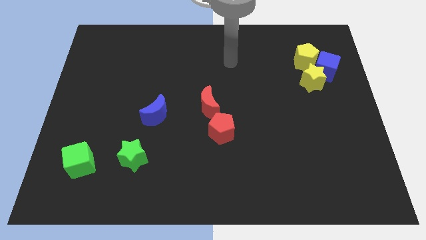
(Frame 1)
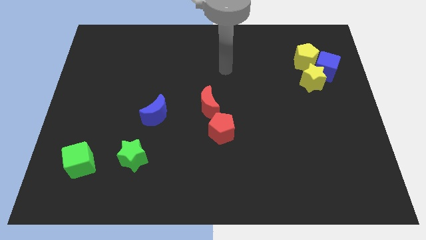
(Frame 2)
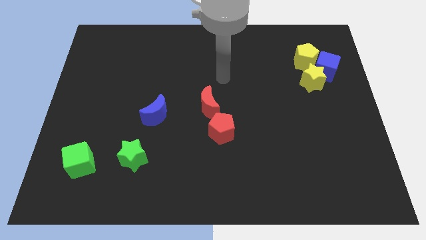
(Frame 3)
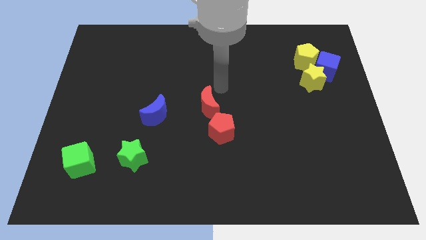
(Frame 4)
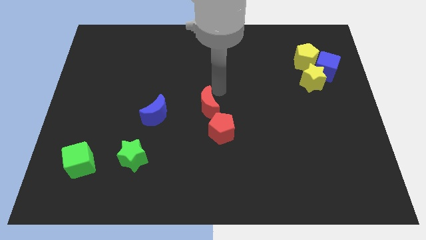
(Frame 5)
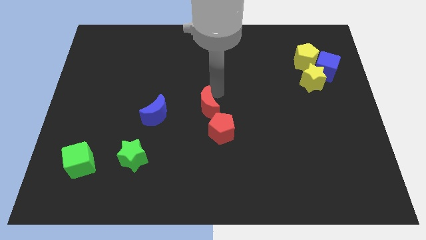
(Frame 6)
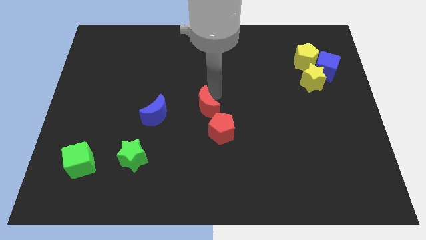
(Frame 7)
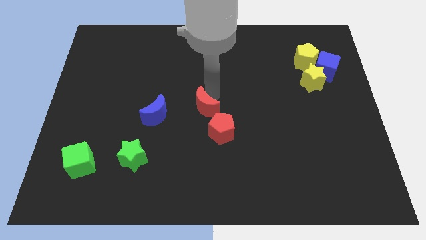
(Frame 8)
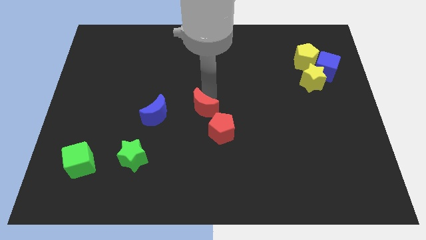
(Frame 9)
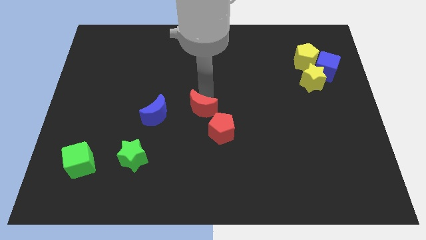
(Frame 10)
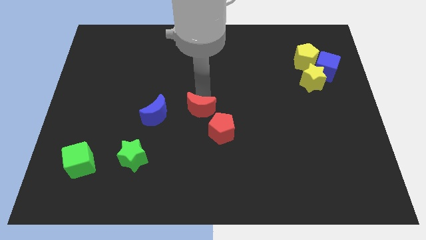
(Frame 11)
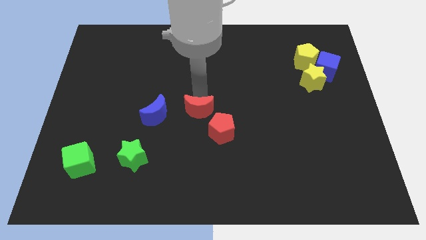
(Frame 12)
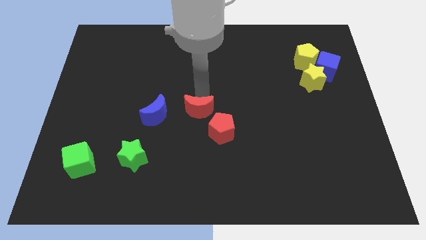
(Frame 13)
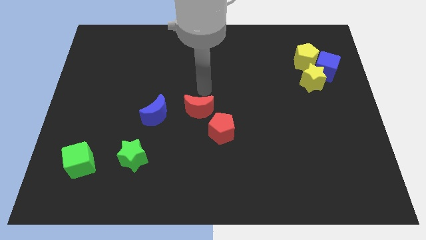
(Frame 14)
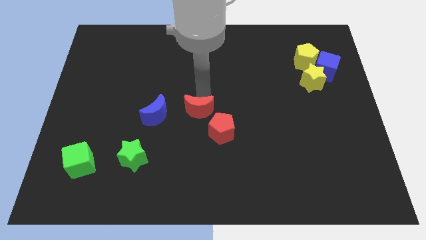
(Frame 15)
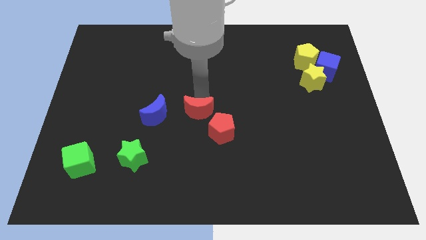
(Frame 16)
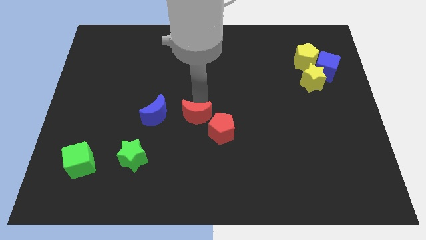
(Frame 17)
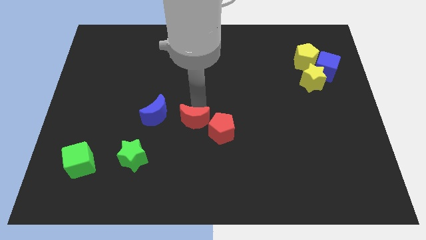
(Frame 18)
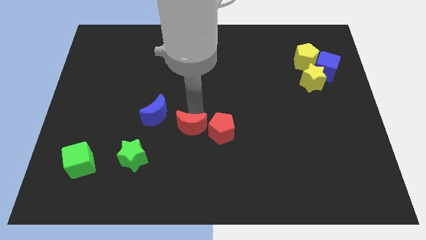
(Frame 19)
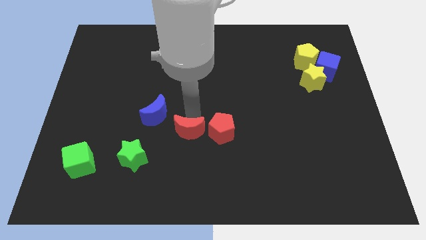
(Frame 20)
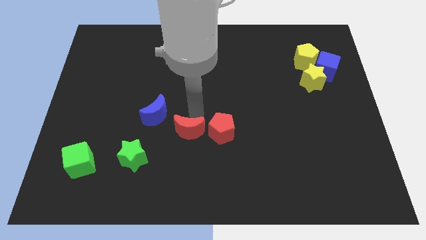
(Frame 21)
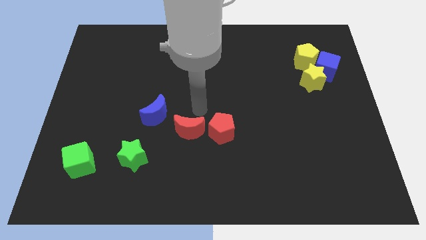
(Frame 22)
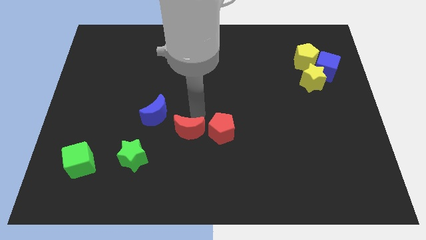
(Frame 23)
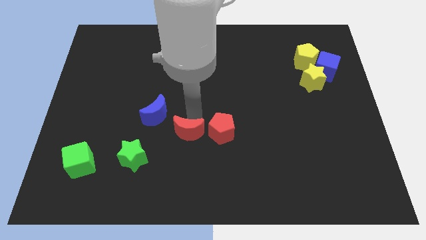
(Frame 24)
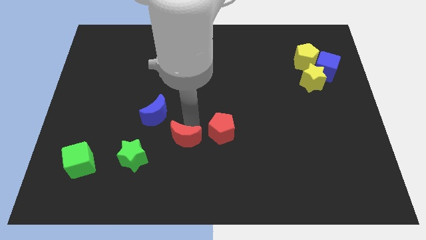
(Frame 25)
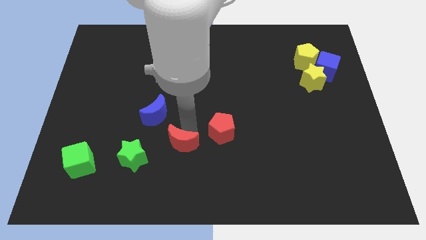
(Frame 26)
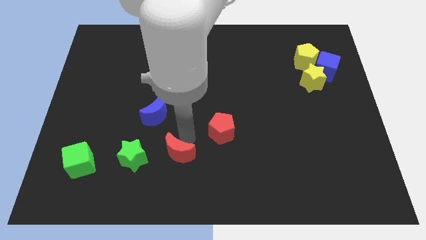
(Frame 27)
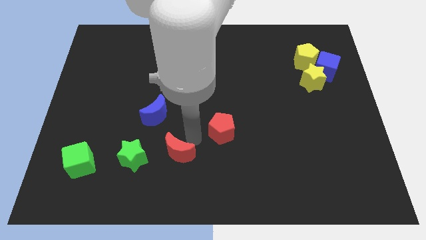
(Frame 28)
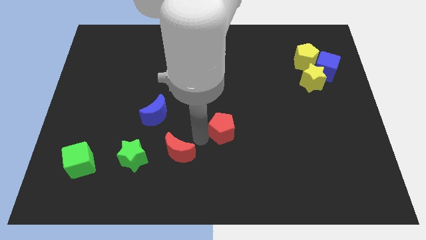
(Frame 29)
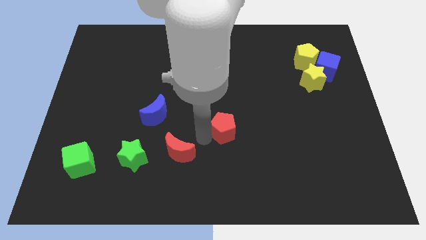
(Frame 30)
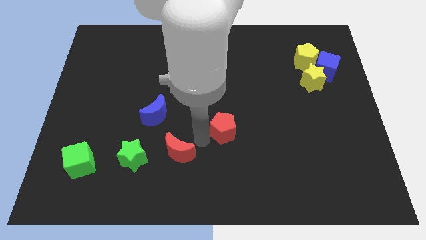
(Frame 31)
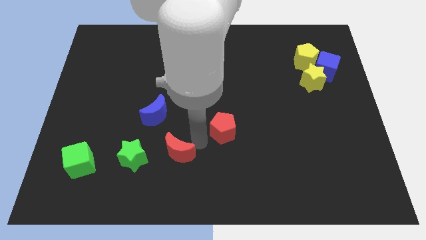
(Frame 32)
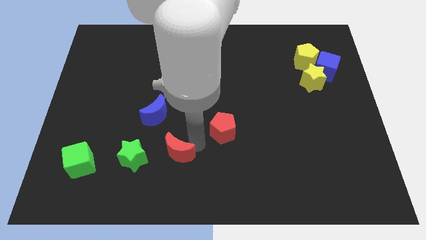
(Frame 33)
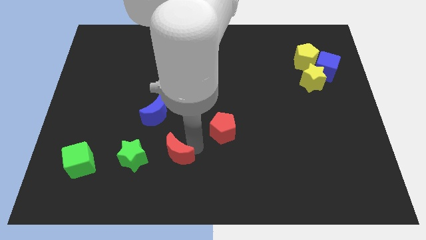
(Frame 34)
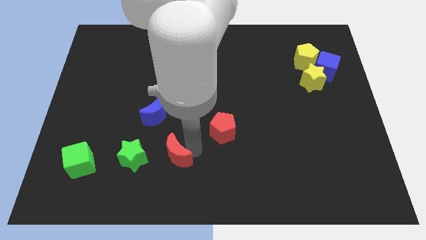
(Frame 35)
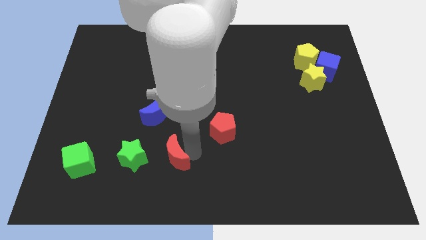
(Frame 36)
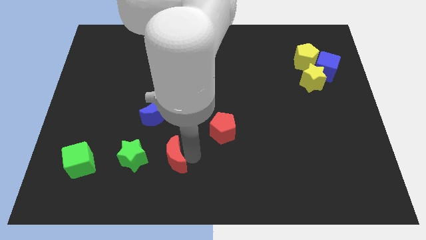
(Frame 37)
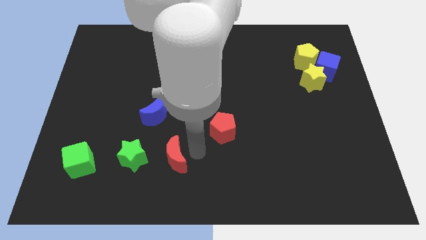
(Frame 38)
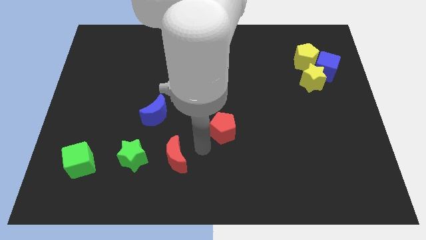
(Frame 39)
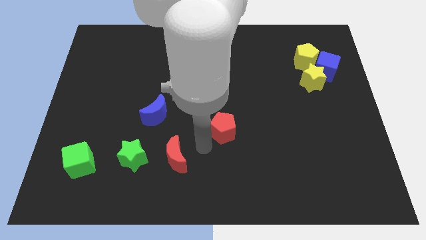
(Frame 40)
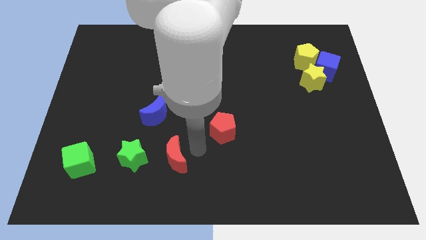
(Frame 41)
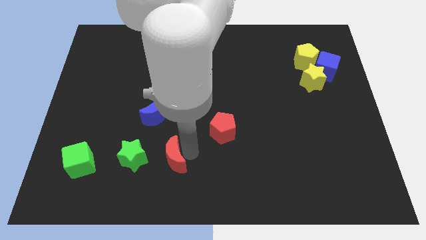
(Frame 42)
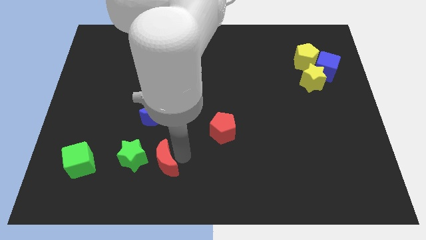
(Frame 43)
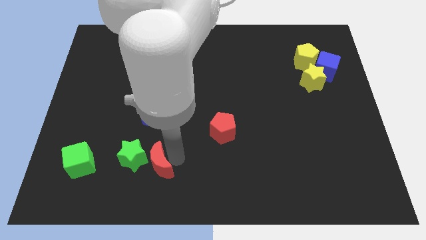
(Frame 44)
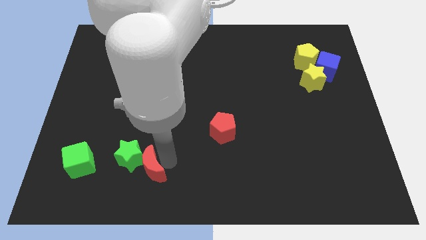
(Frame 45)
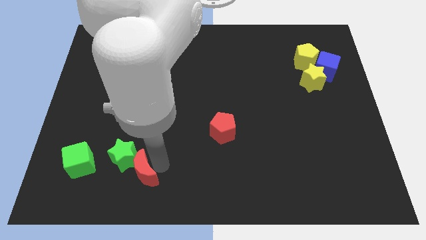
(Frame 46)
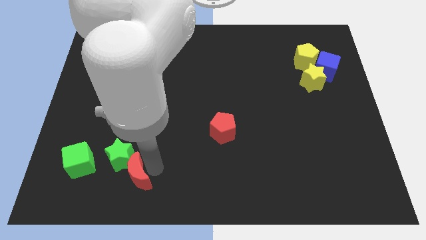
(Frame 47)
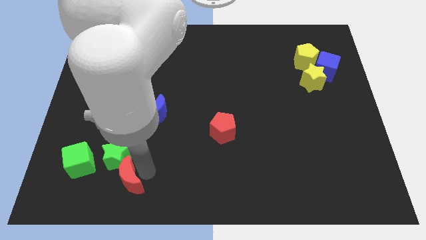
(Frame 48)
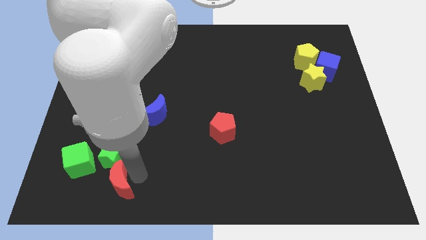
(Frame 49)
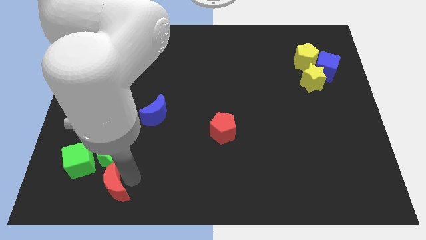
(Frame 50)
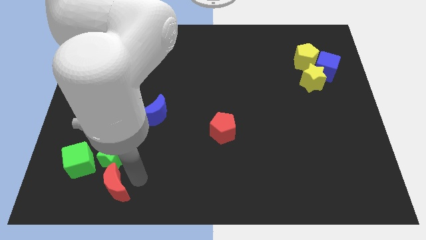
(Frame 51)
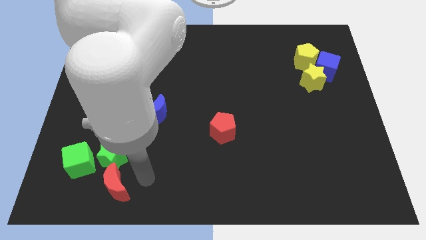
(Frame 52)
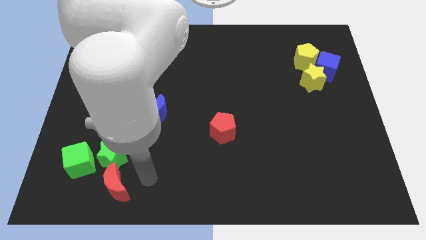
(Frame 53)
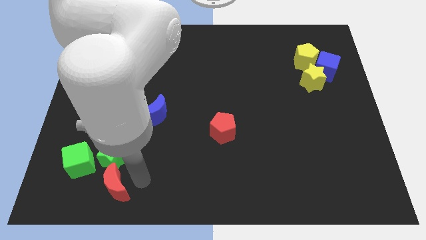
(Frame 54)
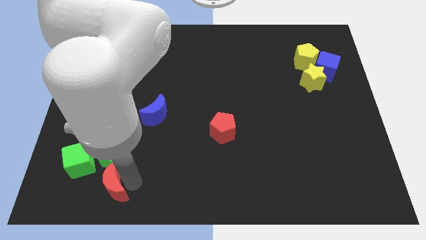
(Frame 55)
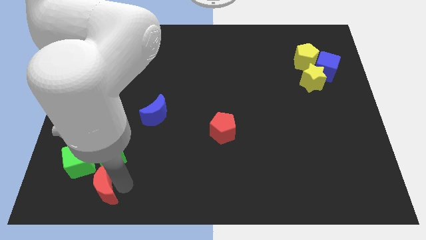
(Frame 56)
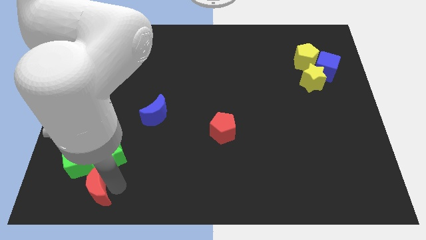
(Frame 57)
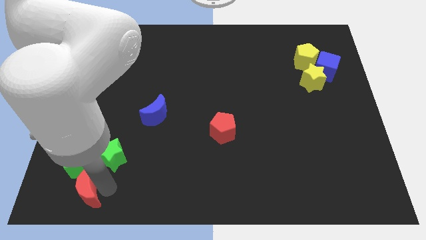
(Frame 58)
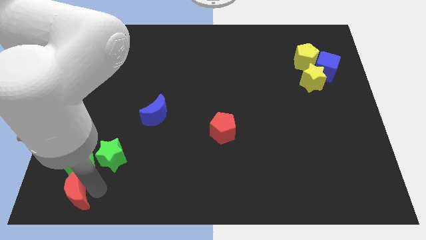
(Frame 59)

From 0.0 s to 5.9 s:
move the red moon to the bottom left corner

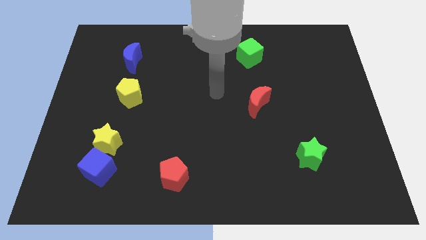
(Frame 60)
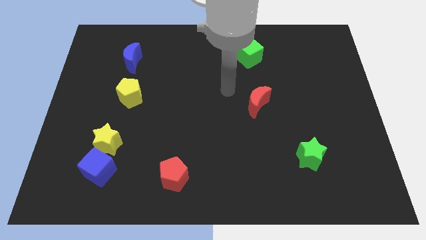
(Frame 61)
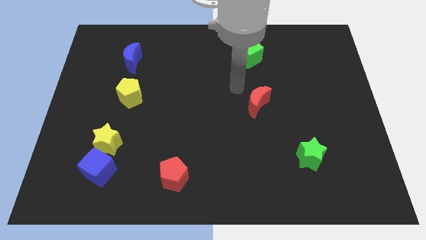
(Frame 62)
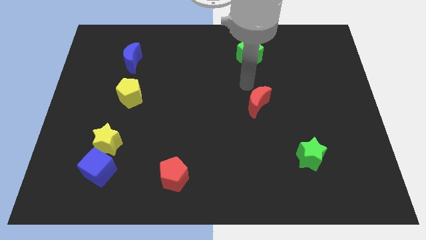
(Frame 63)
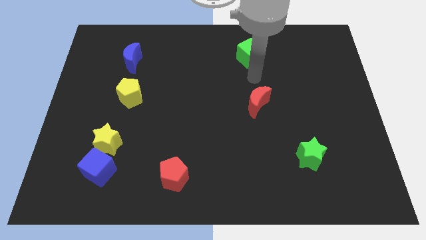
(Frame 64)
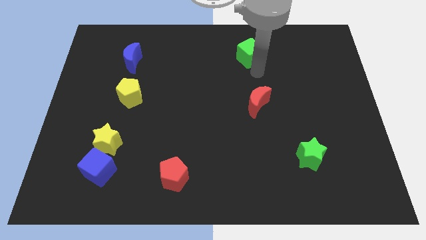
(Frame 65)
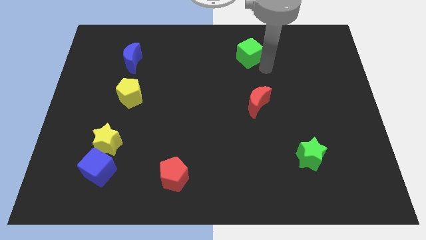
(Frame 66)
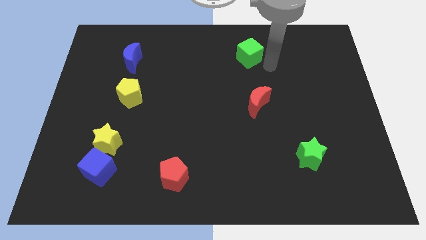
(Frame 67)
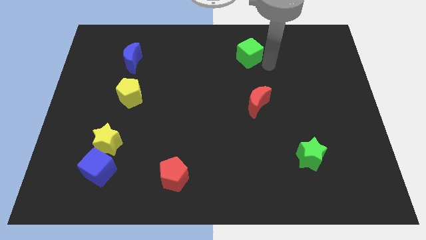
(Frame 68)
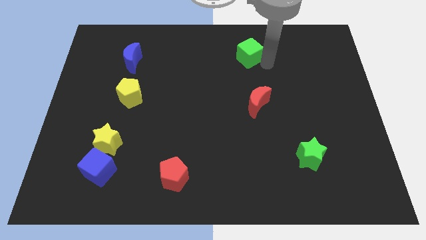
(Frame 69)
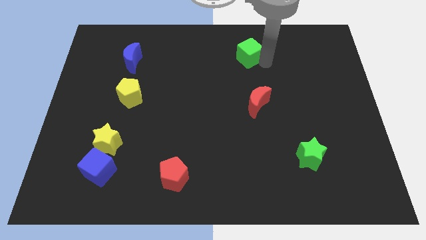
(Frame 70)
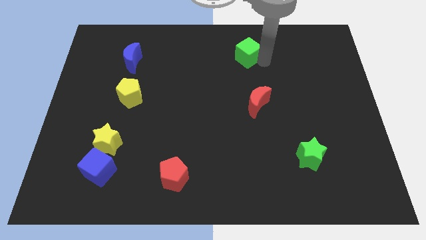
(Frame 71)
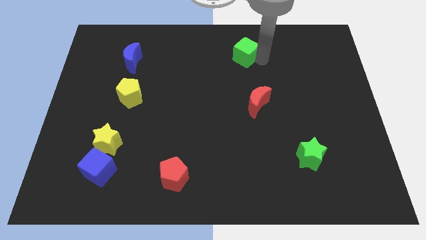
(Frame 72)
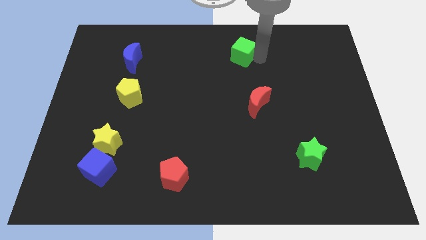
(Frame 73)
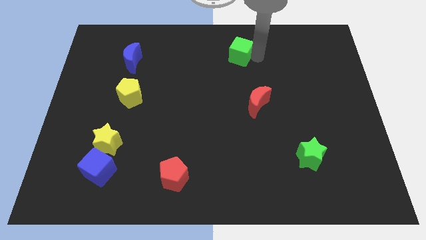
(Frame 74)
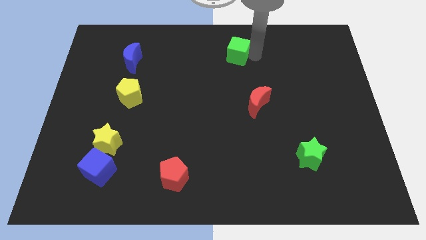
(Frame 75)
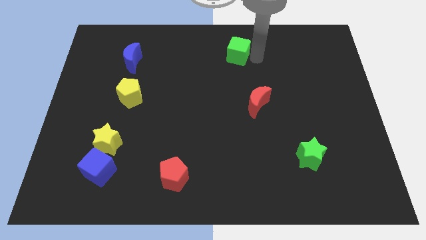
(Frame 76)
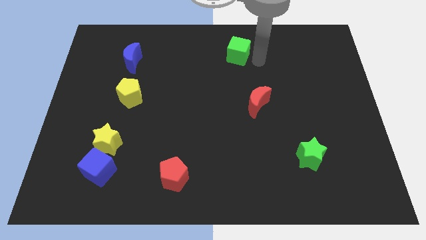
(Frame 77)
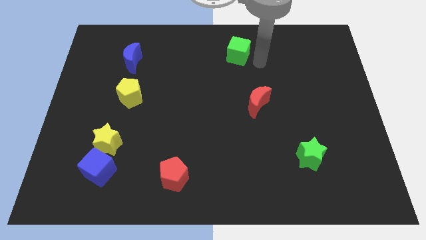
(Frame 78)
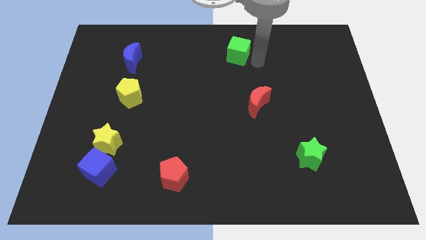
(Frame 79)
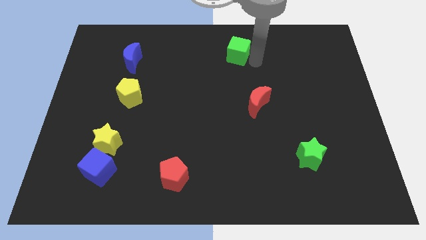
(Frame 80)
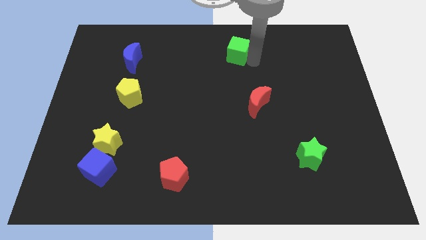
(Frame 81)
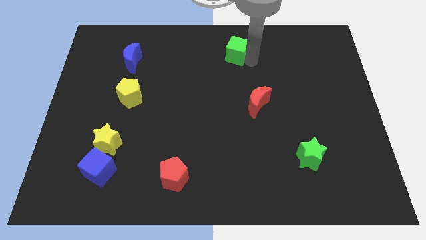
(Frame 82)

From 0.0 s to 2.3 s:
push the green cube to the top
